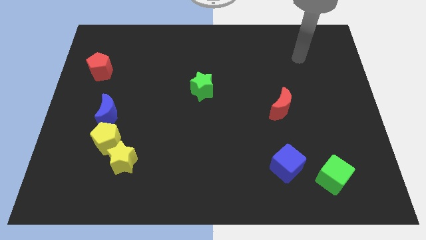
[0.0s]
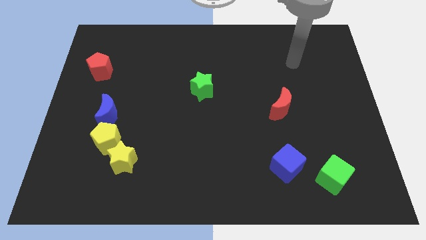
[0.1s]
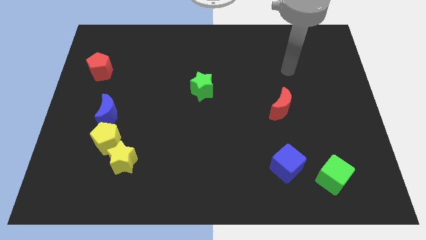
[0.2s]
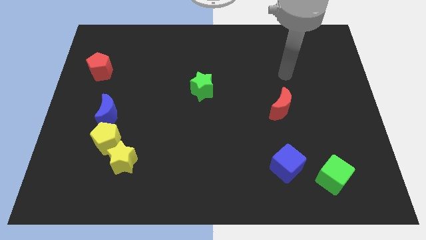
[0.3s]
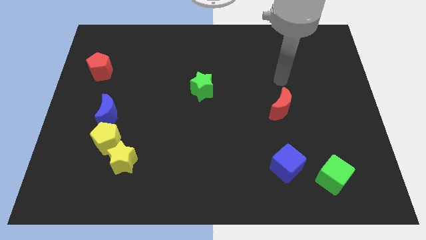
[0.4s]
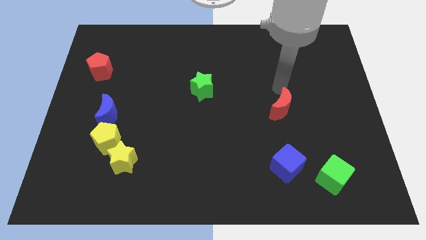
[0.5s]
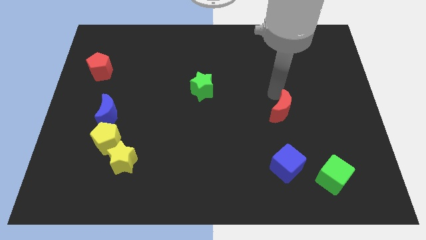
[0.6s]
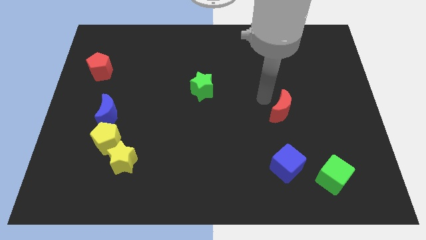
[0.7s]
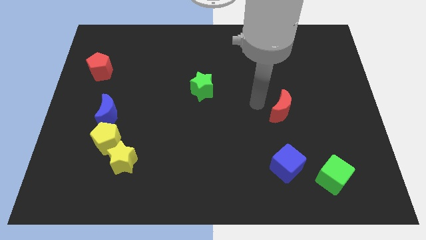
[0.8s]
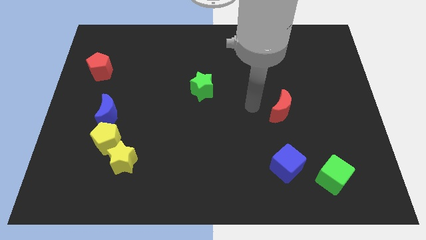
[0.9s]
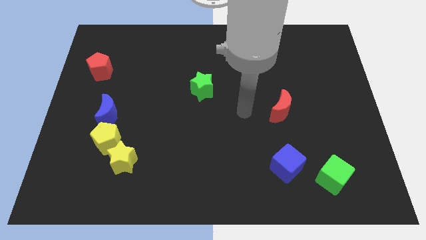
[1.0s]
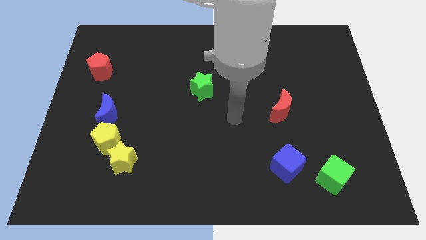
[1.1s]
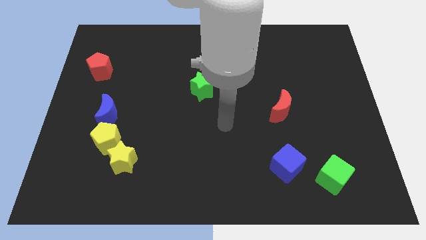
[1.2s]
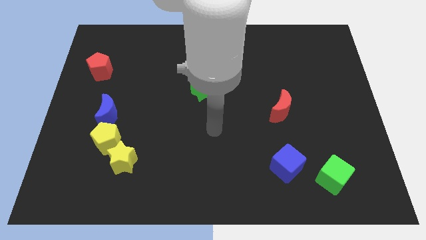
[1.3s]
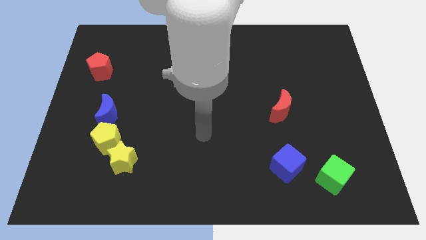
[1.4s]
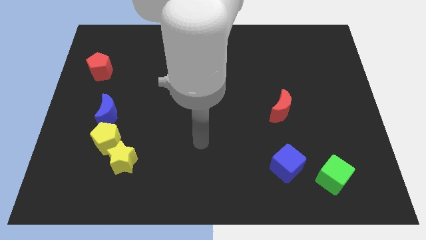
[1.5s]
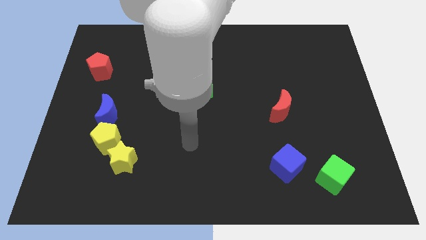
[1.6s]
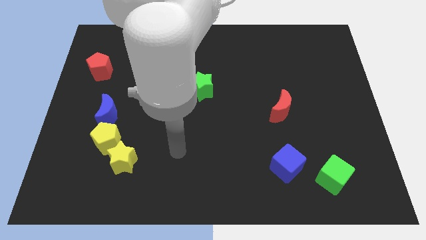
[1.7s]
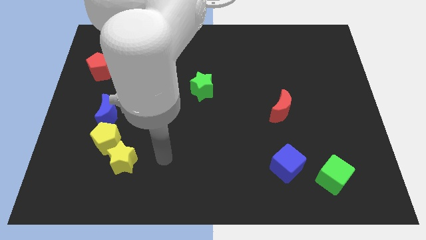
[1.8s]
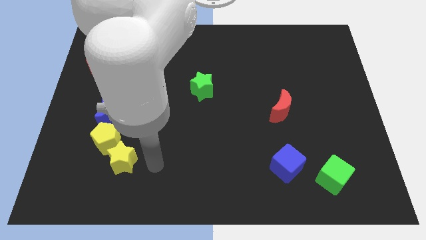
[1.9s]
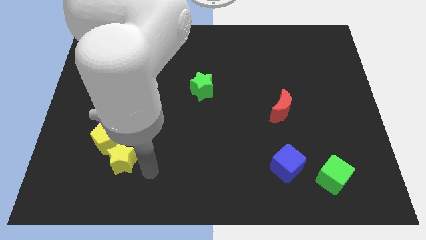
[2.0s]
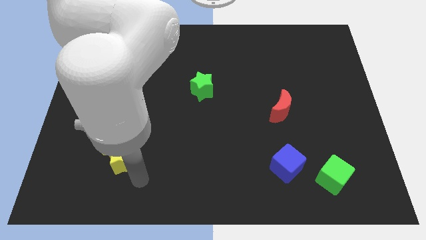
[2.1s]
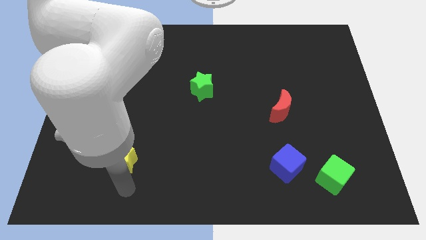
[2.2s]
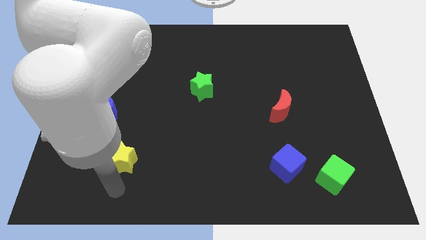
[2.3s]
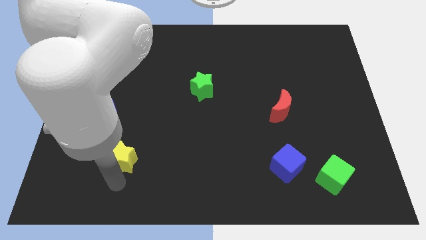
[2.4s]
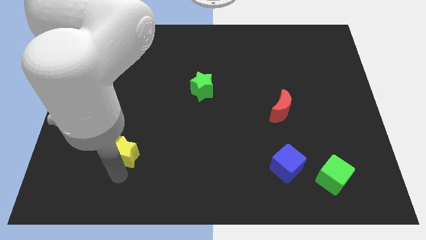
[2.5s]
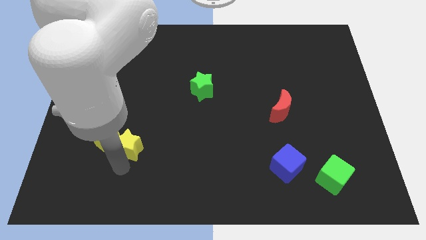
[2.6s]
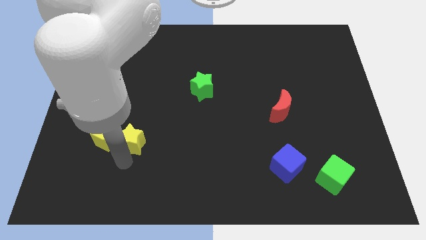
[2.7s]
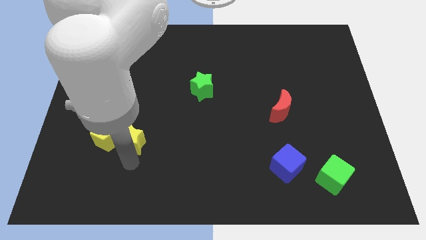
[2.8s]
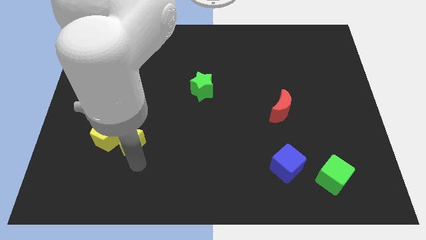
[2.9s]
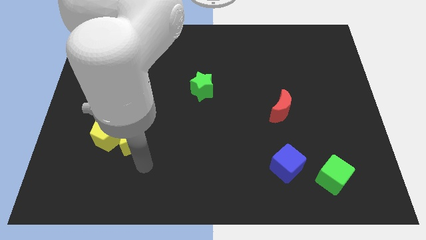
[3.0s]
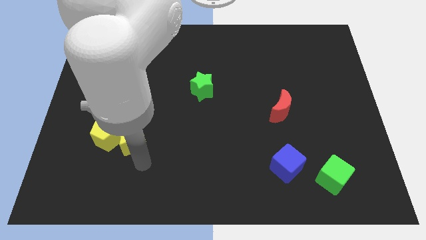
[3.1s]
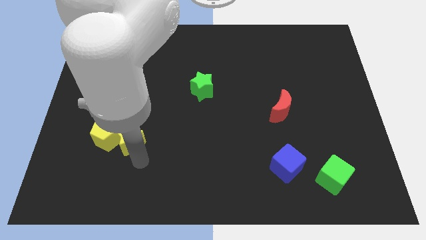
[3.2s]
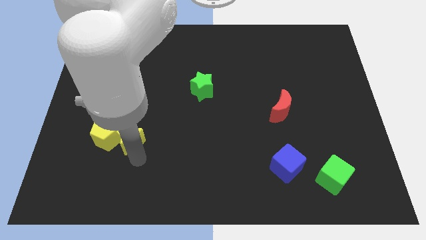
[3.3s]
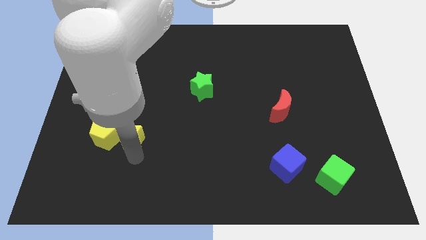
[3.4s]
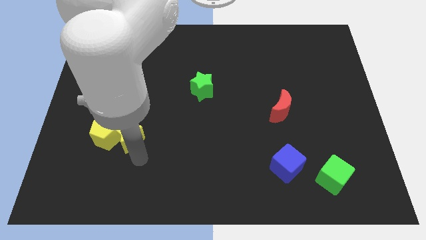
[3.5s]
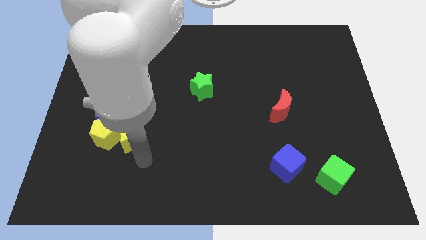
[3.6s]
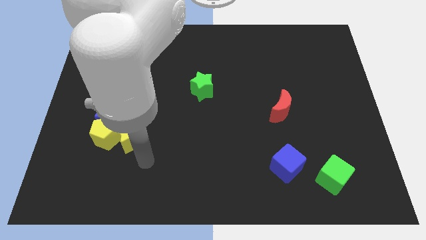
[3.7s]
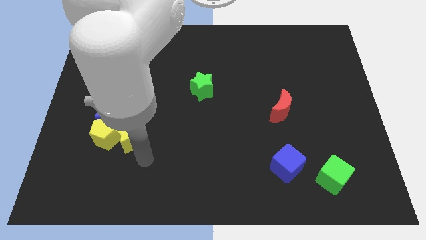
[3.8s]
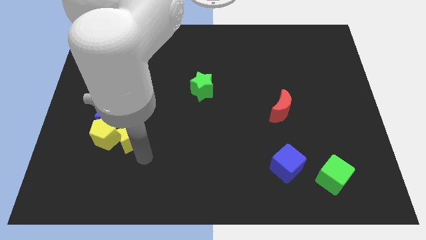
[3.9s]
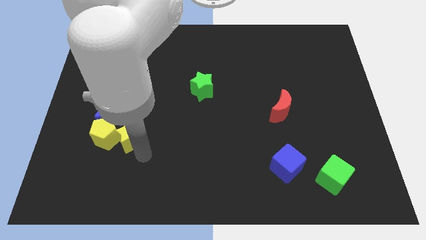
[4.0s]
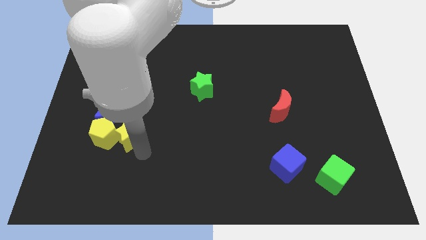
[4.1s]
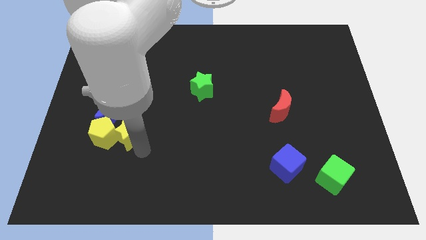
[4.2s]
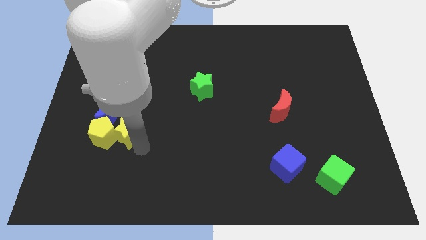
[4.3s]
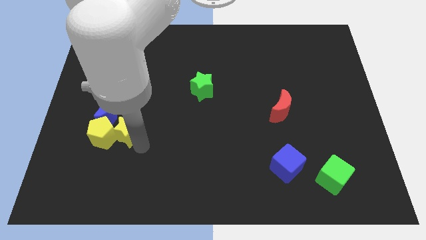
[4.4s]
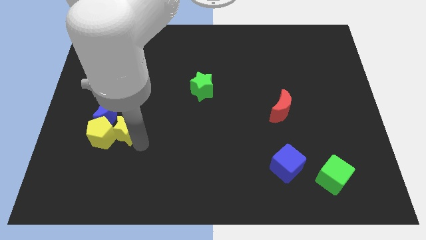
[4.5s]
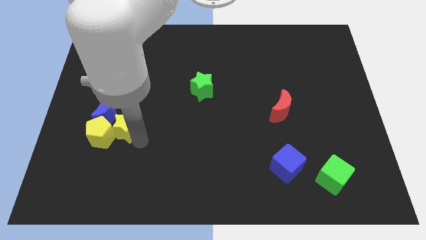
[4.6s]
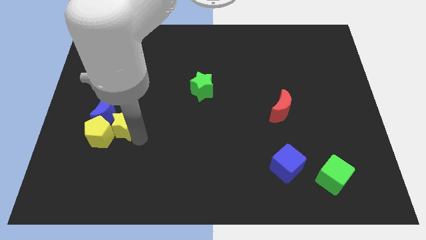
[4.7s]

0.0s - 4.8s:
slide the yellow star towards the blue moon

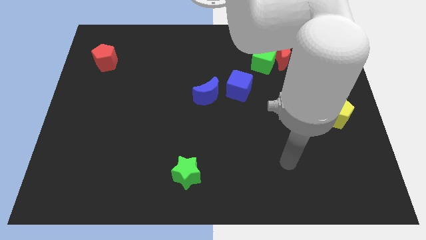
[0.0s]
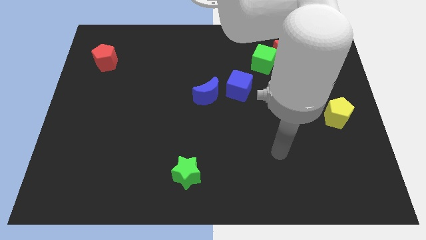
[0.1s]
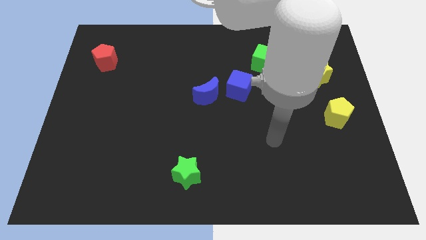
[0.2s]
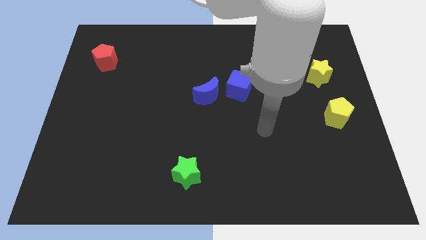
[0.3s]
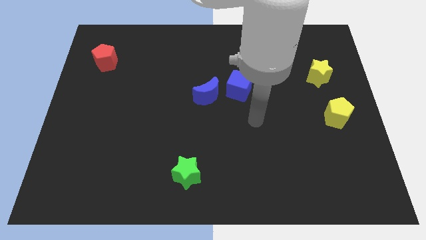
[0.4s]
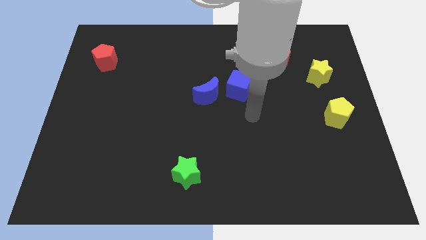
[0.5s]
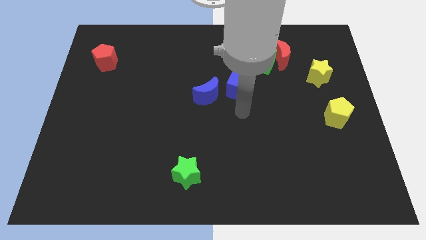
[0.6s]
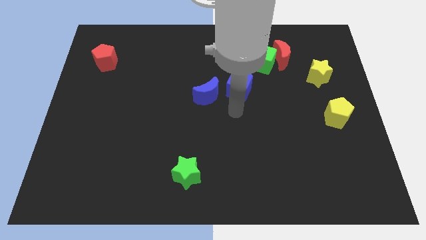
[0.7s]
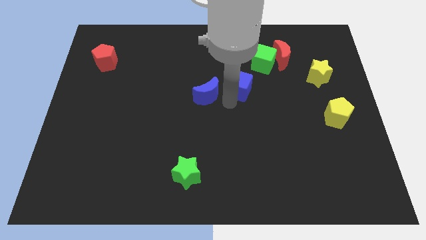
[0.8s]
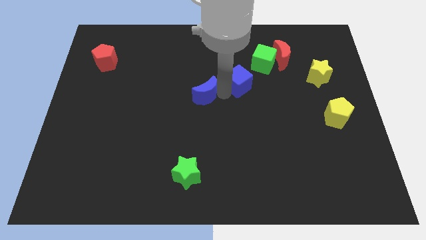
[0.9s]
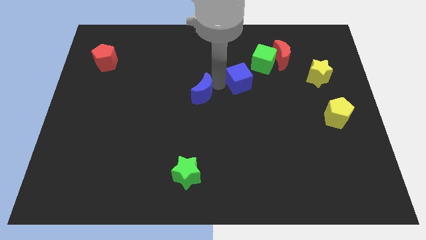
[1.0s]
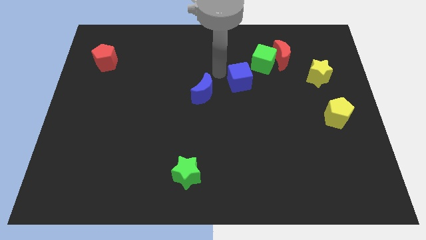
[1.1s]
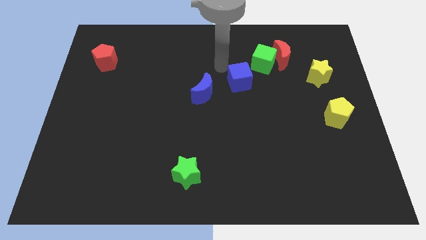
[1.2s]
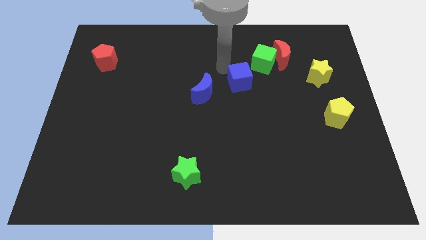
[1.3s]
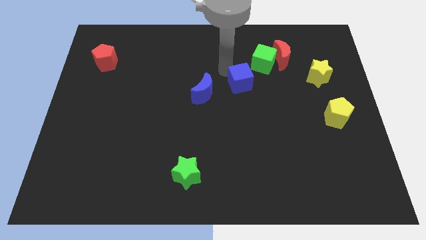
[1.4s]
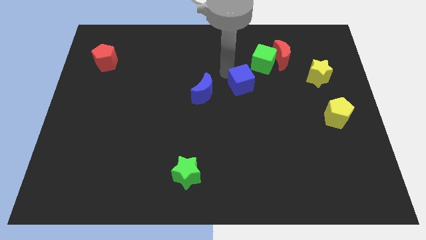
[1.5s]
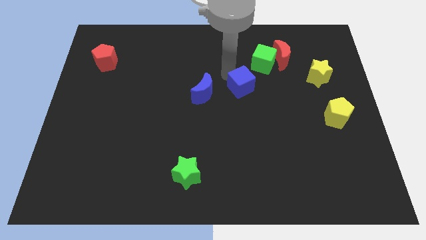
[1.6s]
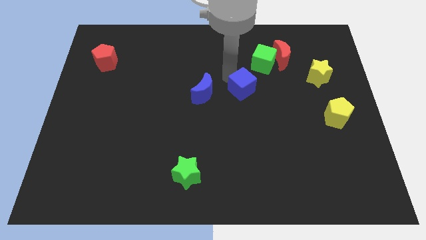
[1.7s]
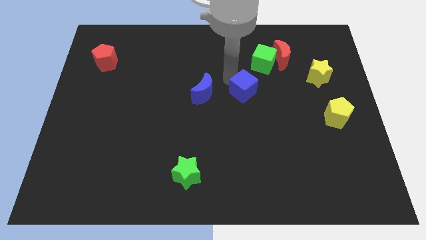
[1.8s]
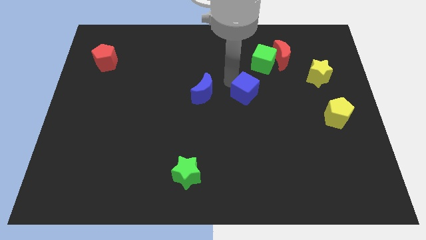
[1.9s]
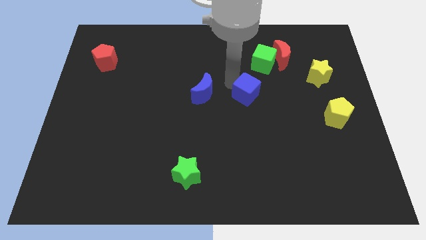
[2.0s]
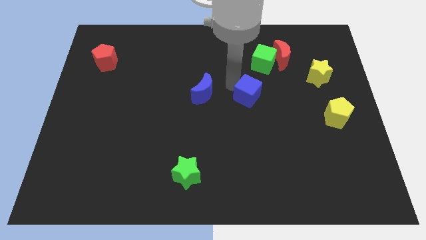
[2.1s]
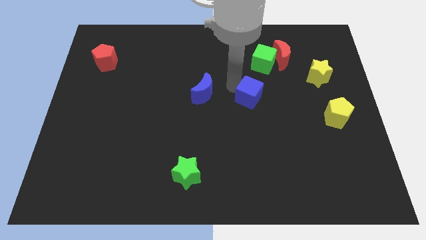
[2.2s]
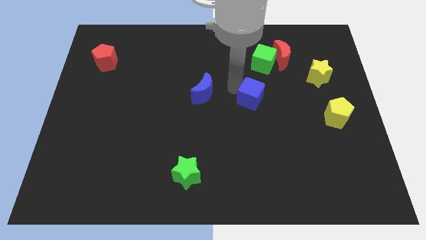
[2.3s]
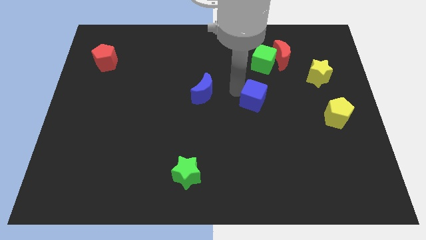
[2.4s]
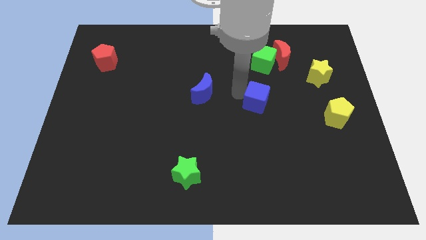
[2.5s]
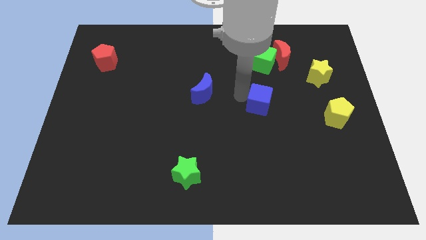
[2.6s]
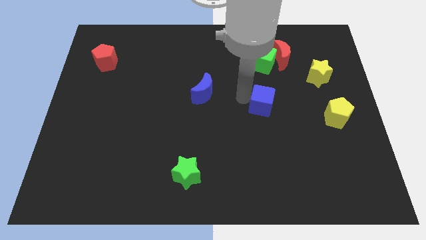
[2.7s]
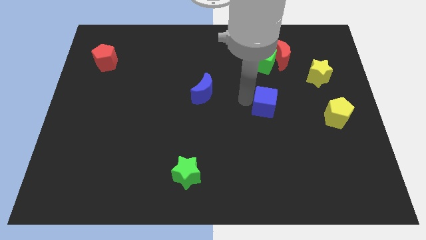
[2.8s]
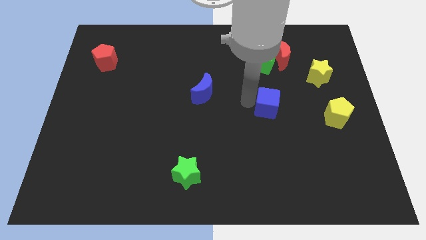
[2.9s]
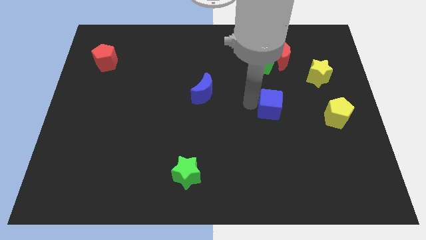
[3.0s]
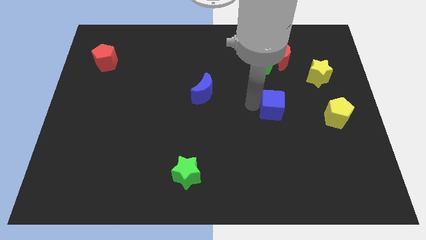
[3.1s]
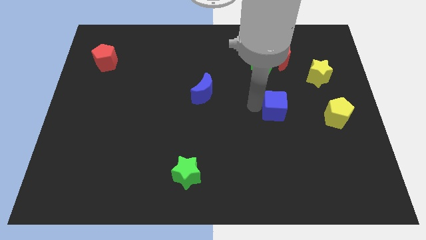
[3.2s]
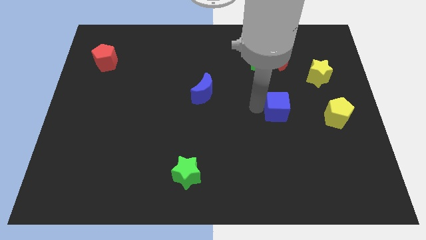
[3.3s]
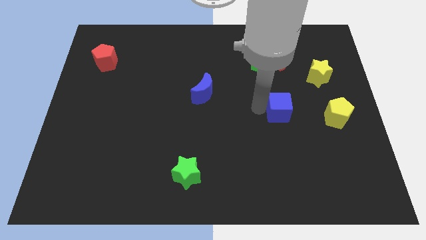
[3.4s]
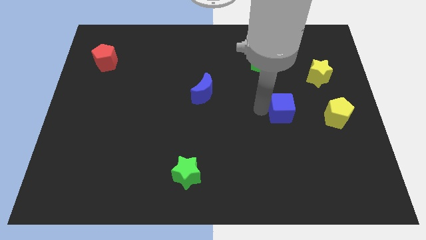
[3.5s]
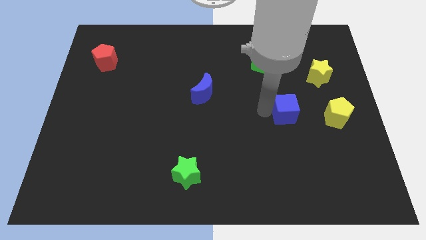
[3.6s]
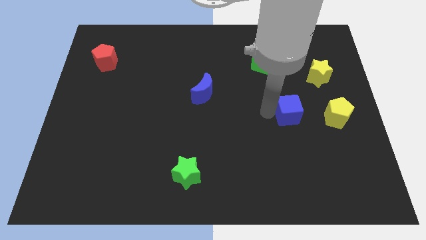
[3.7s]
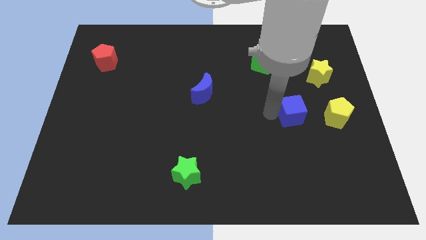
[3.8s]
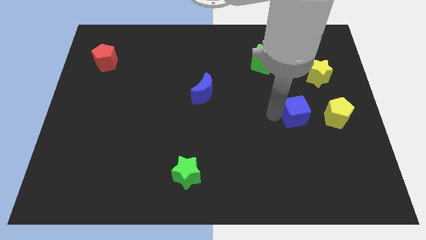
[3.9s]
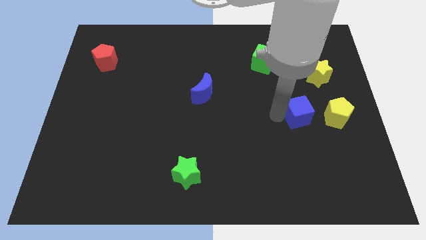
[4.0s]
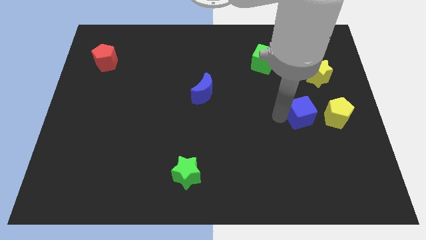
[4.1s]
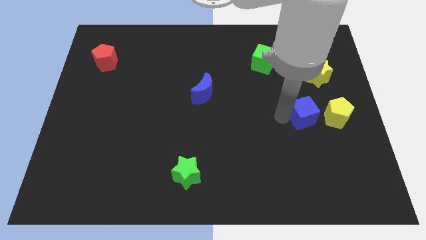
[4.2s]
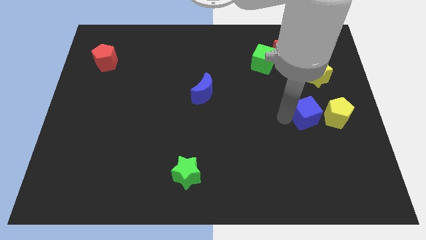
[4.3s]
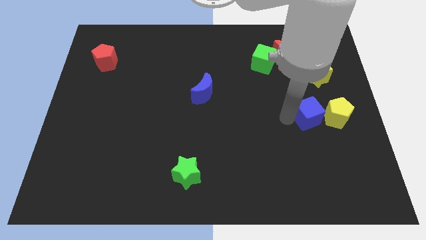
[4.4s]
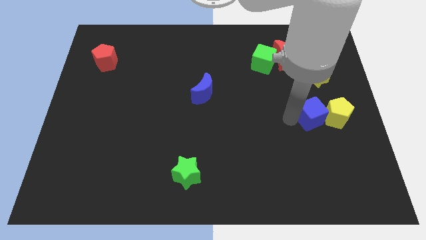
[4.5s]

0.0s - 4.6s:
slide the blue cube to the yellow pentagon
